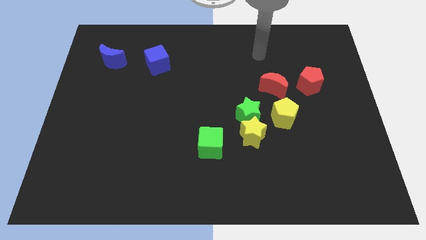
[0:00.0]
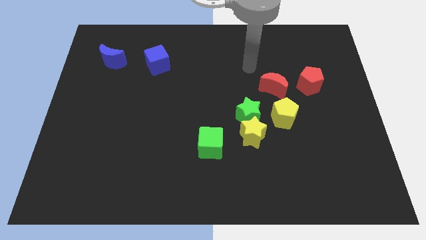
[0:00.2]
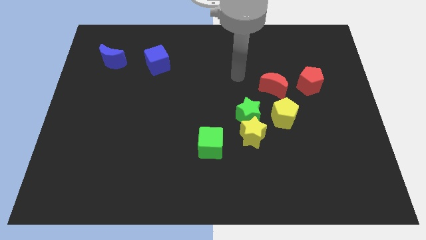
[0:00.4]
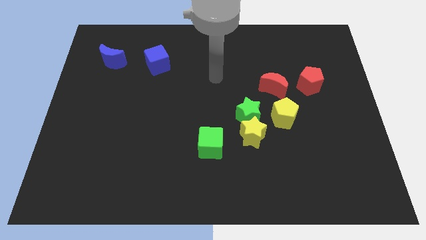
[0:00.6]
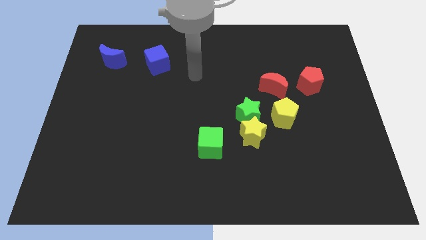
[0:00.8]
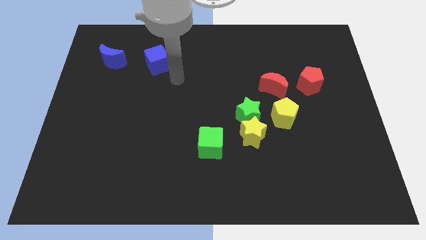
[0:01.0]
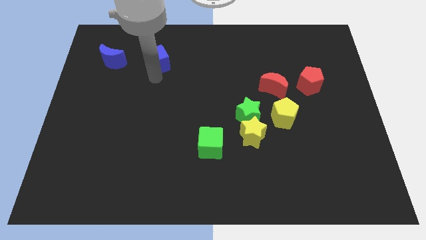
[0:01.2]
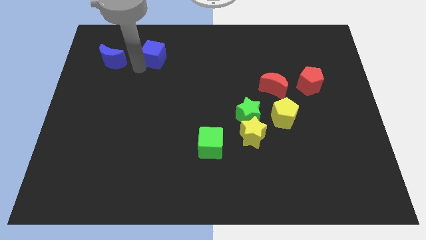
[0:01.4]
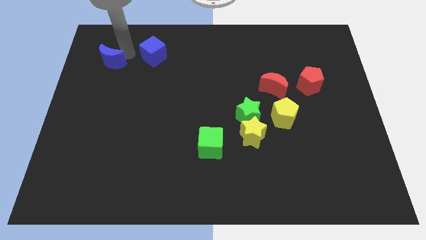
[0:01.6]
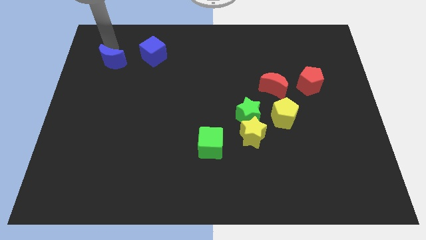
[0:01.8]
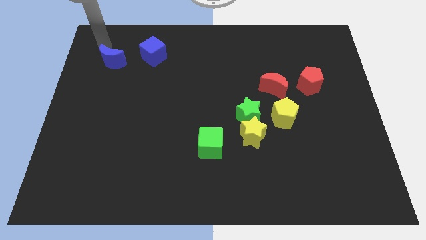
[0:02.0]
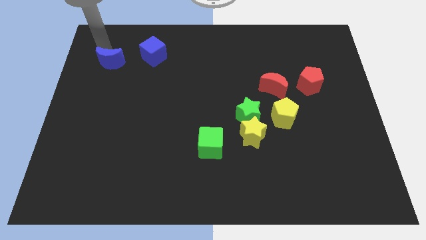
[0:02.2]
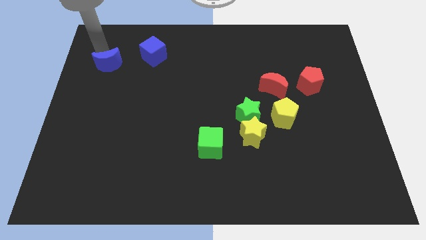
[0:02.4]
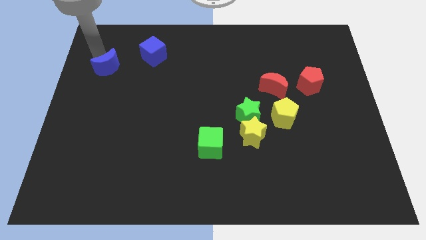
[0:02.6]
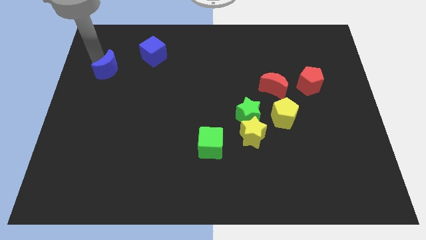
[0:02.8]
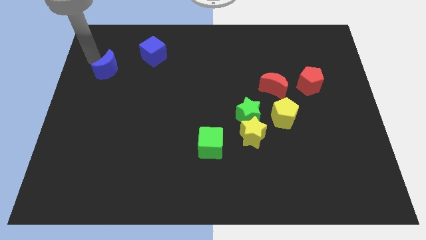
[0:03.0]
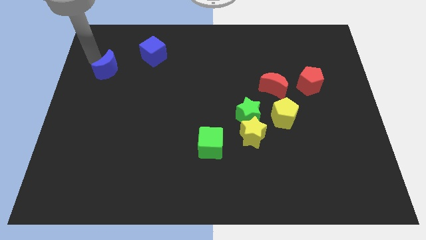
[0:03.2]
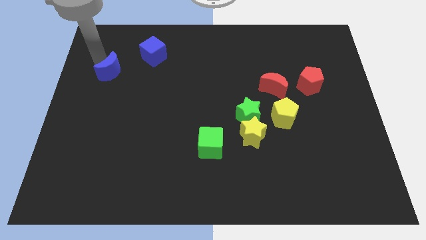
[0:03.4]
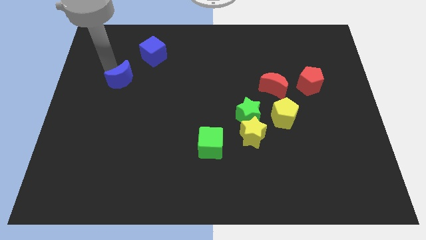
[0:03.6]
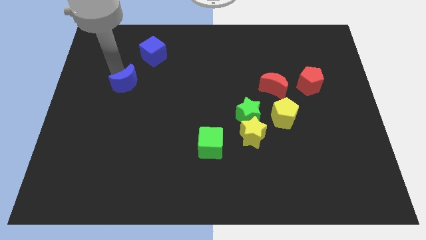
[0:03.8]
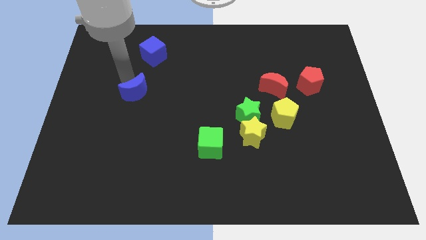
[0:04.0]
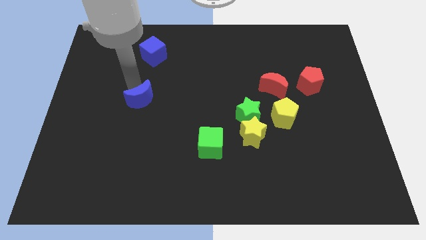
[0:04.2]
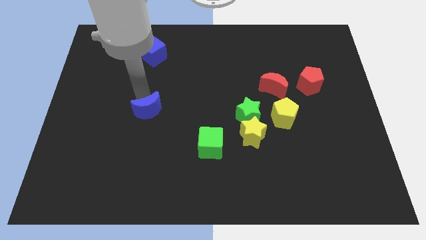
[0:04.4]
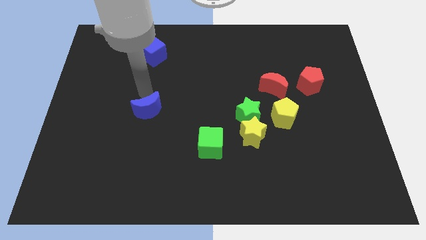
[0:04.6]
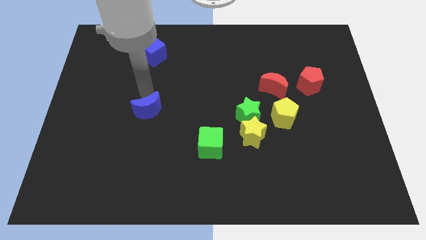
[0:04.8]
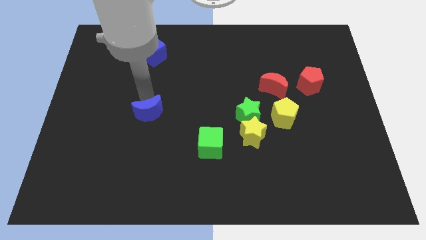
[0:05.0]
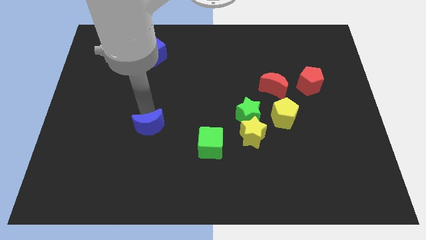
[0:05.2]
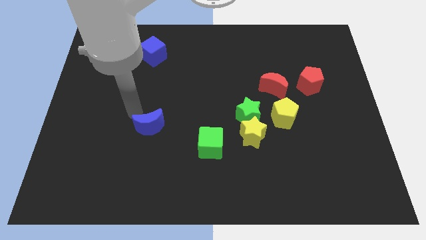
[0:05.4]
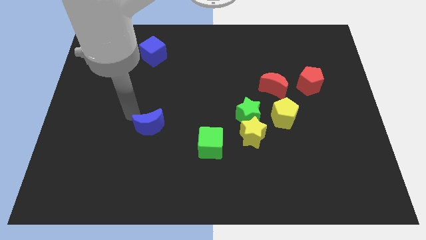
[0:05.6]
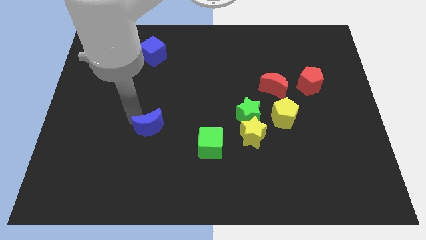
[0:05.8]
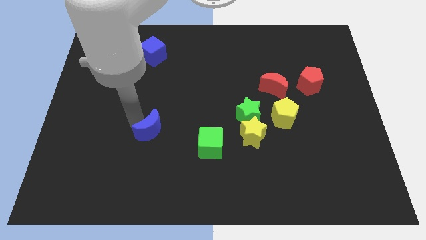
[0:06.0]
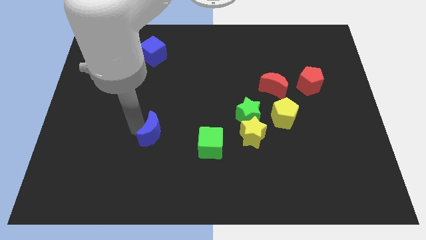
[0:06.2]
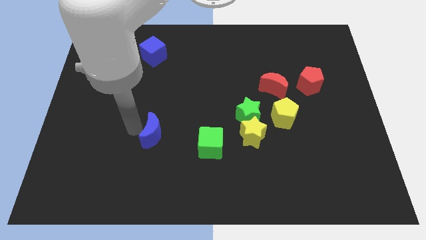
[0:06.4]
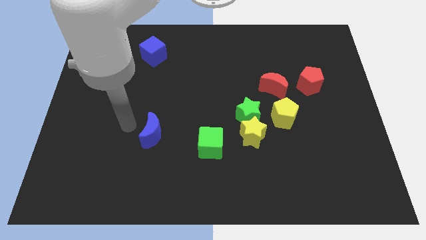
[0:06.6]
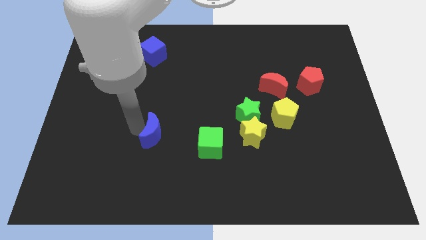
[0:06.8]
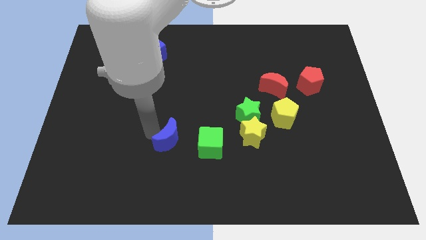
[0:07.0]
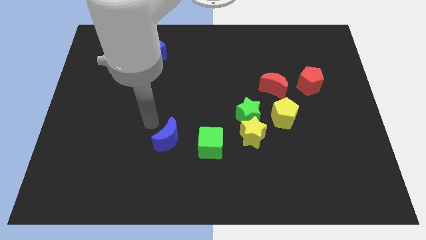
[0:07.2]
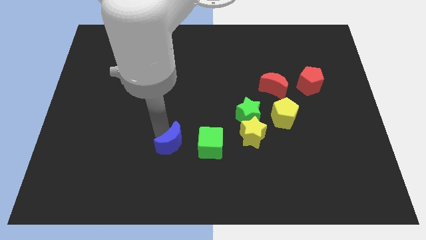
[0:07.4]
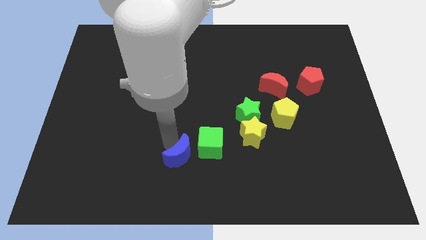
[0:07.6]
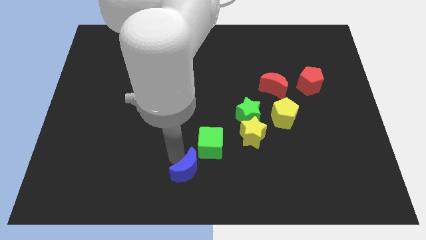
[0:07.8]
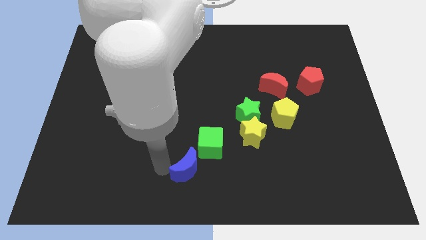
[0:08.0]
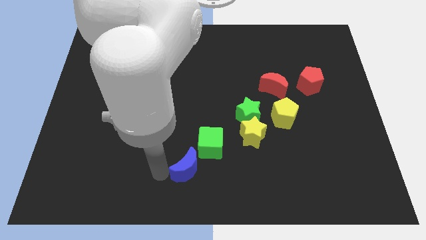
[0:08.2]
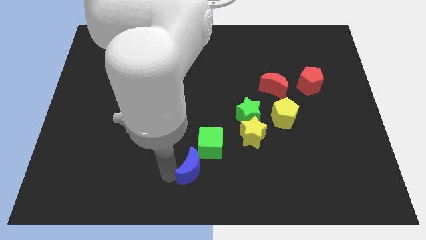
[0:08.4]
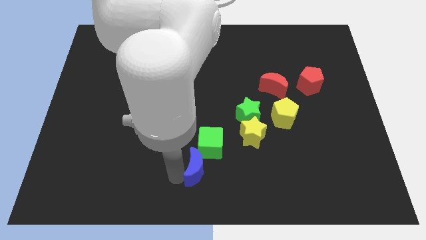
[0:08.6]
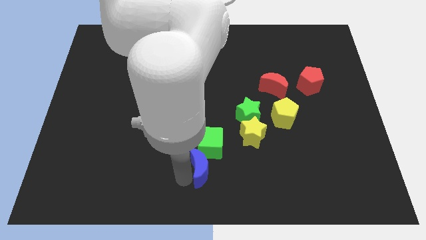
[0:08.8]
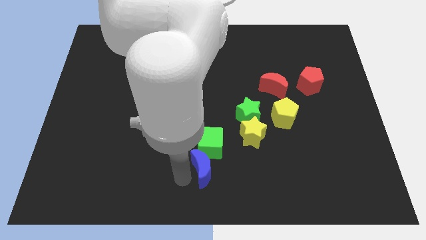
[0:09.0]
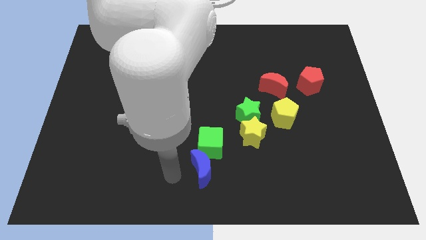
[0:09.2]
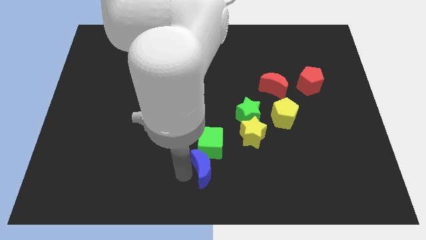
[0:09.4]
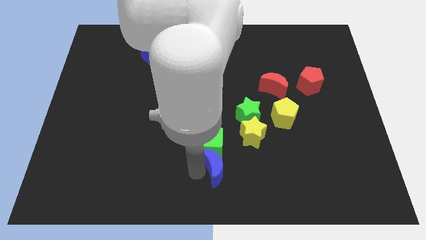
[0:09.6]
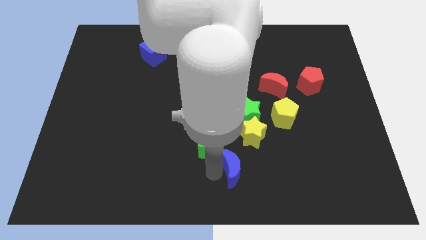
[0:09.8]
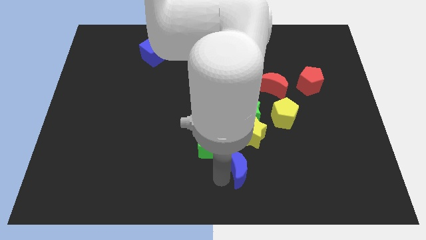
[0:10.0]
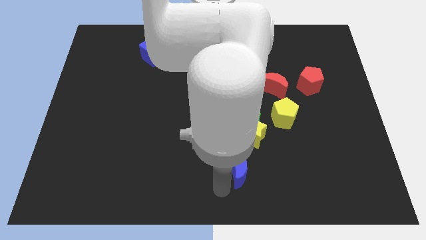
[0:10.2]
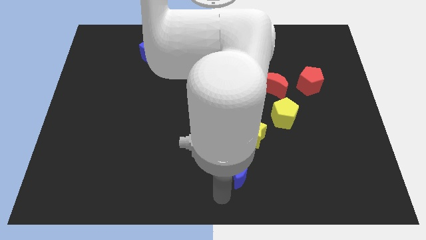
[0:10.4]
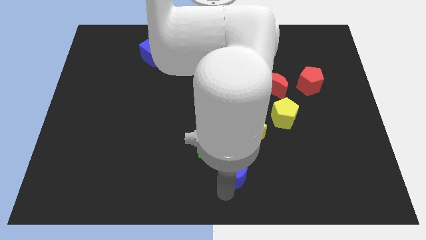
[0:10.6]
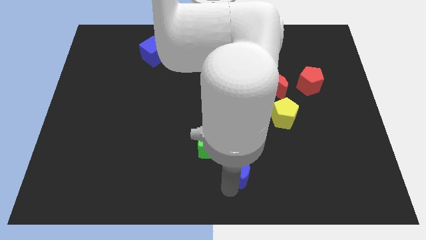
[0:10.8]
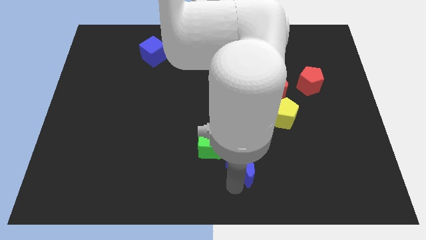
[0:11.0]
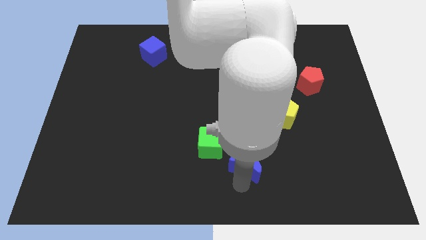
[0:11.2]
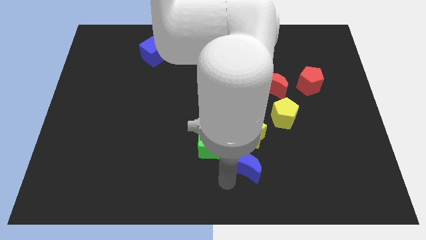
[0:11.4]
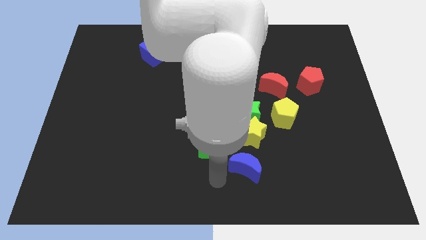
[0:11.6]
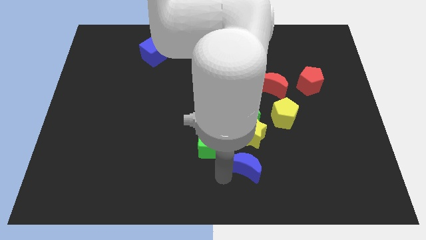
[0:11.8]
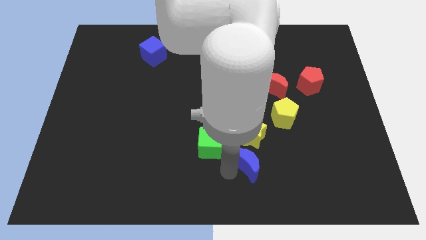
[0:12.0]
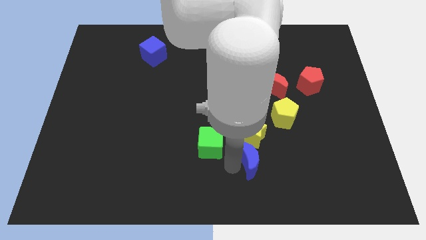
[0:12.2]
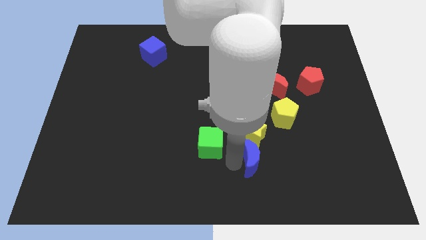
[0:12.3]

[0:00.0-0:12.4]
put the blue moon to the bottom right side of the yellow star
